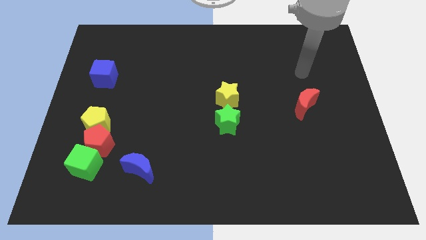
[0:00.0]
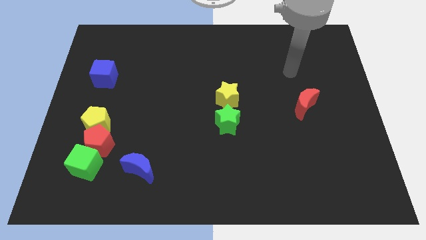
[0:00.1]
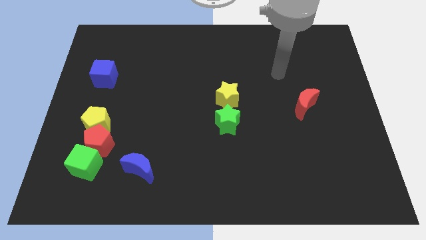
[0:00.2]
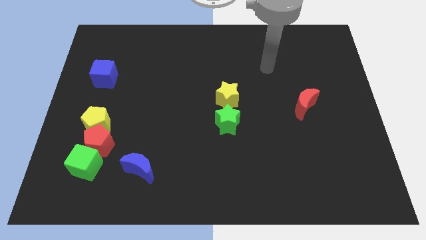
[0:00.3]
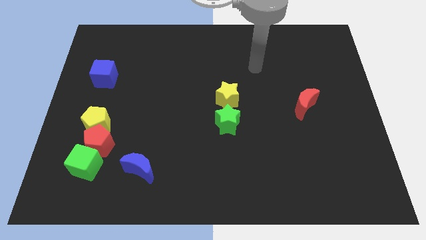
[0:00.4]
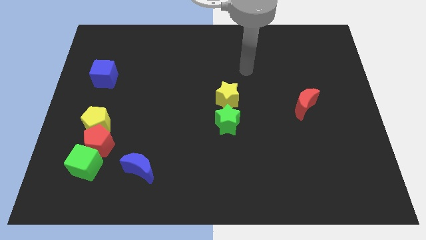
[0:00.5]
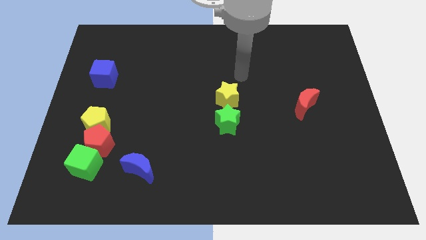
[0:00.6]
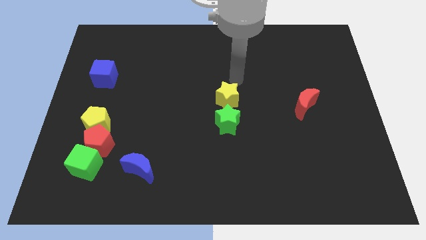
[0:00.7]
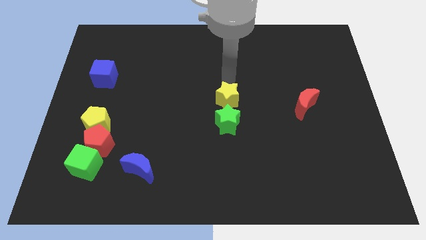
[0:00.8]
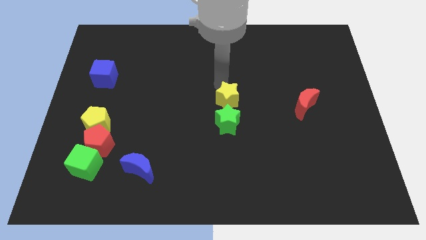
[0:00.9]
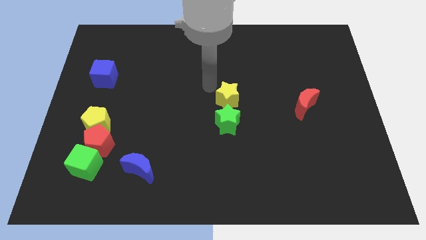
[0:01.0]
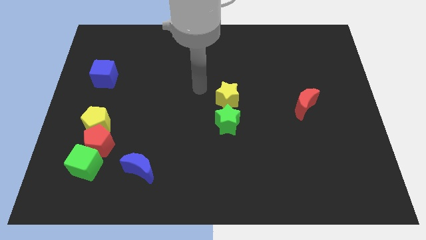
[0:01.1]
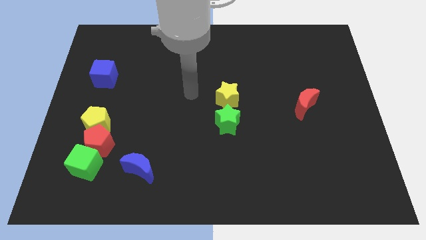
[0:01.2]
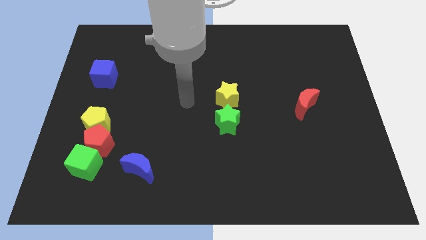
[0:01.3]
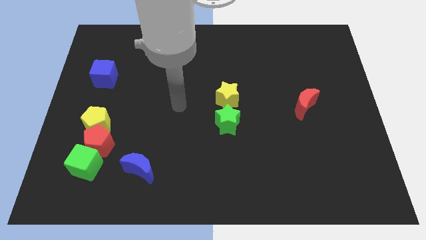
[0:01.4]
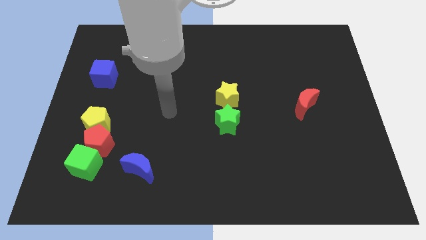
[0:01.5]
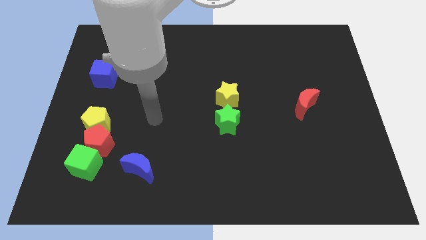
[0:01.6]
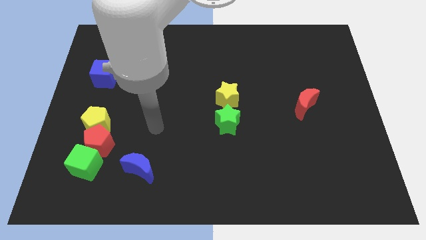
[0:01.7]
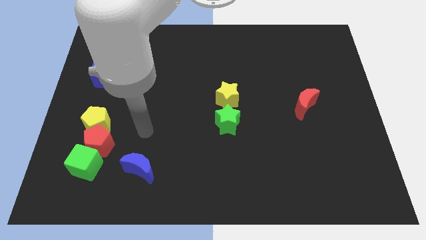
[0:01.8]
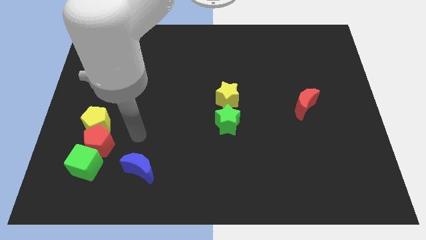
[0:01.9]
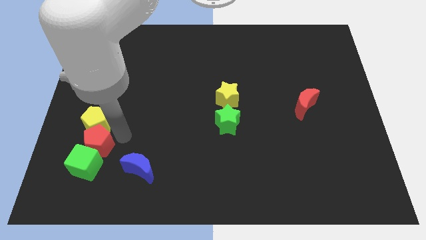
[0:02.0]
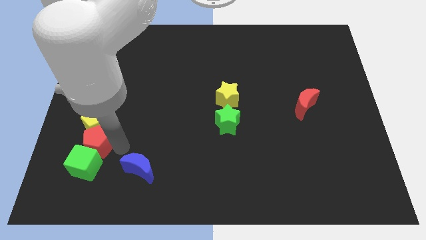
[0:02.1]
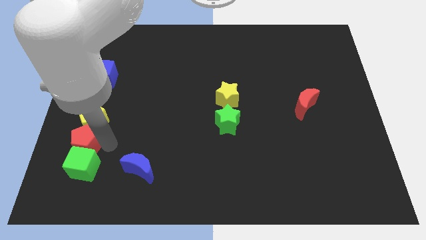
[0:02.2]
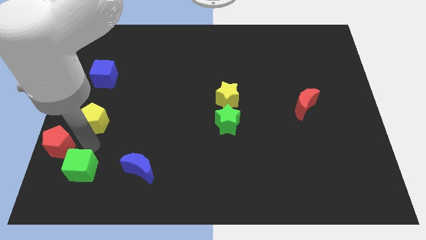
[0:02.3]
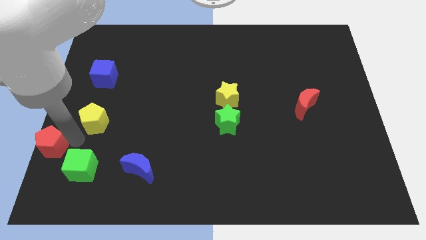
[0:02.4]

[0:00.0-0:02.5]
move the yellow pentagon away from the red pentagon

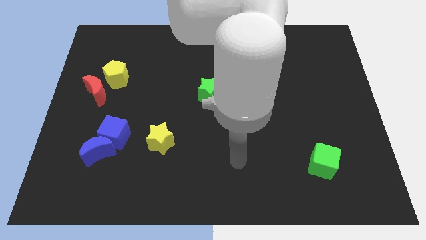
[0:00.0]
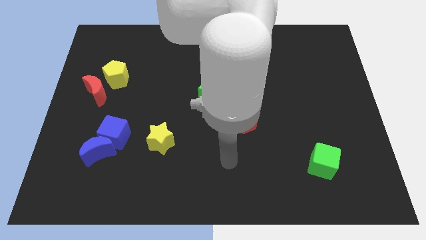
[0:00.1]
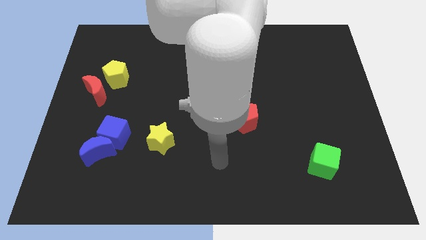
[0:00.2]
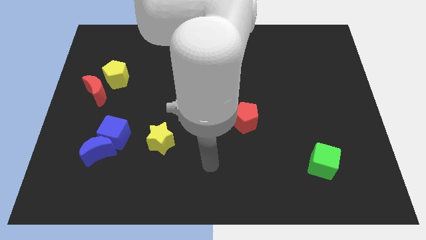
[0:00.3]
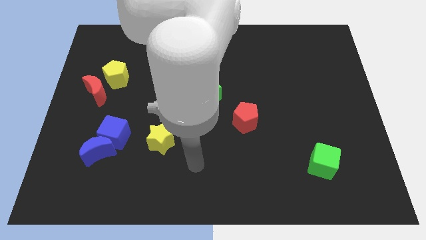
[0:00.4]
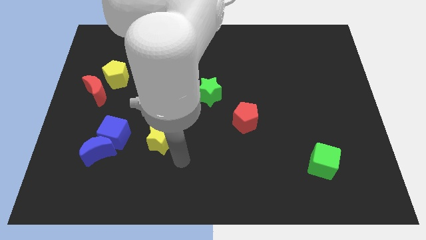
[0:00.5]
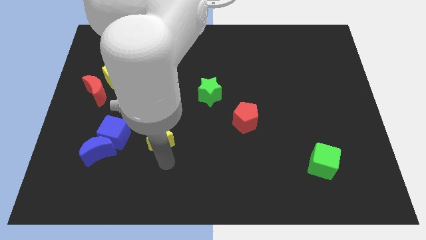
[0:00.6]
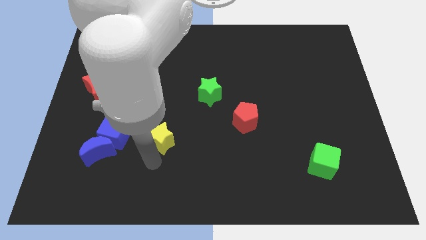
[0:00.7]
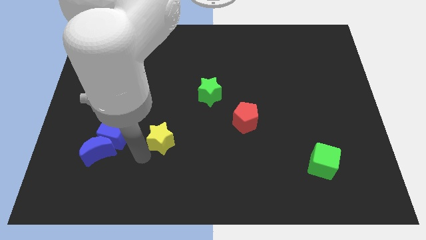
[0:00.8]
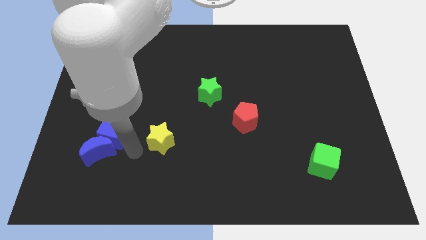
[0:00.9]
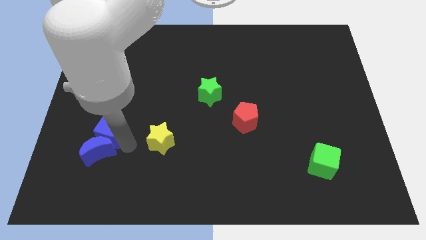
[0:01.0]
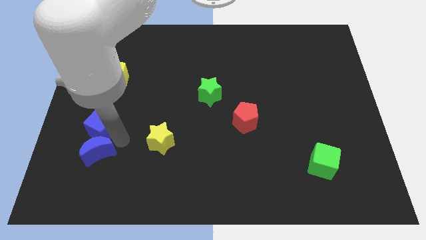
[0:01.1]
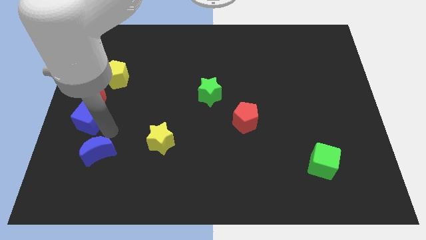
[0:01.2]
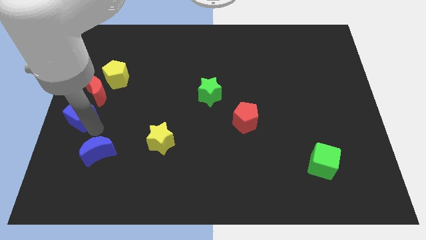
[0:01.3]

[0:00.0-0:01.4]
move the blue moon away from the blue cube

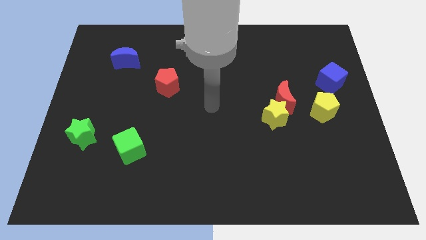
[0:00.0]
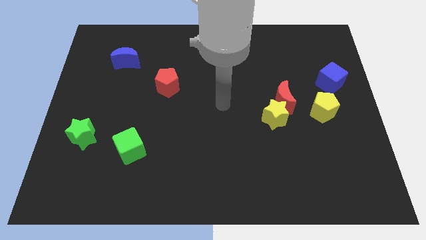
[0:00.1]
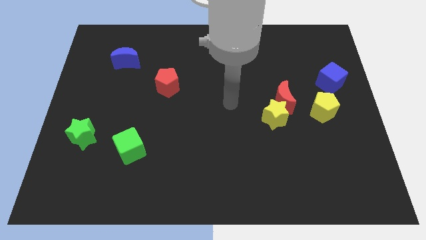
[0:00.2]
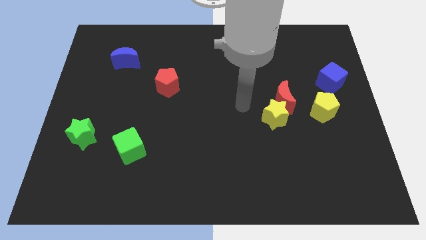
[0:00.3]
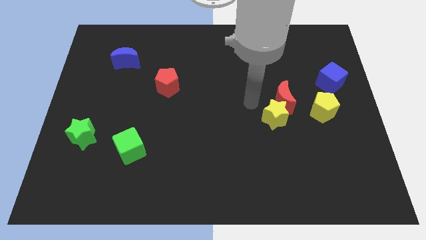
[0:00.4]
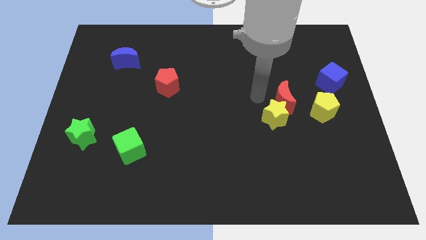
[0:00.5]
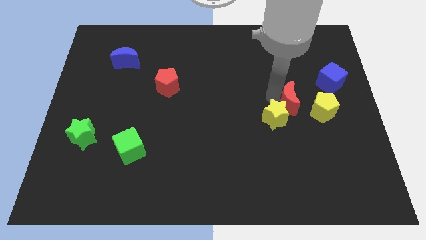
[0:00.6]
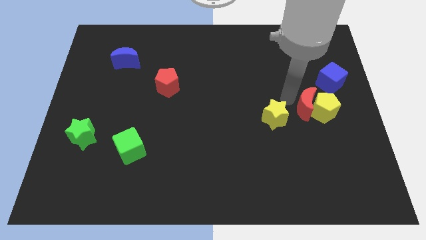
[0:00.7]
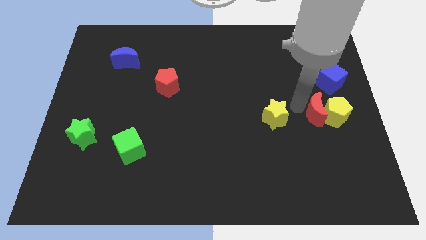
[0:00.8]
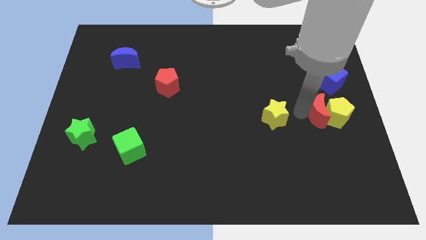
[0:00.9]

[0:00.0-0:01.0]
pull the yellow star apart from the red moon

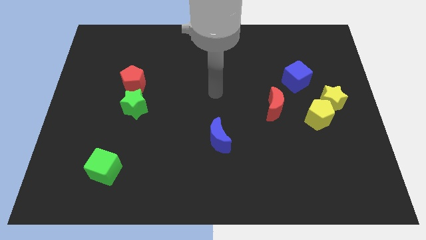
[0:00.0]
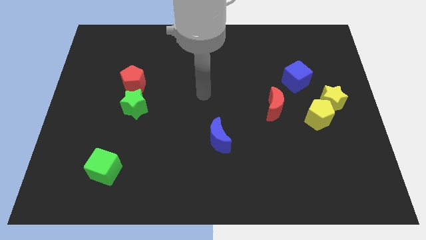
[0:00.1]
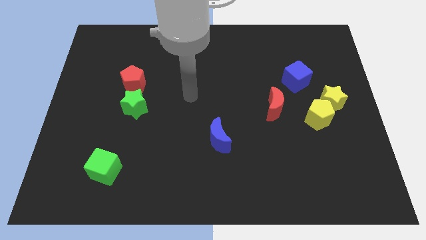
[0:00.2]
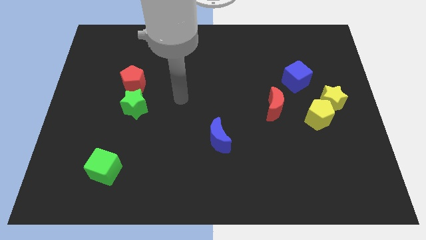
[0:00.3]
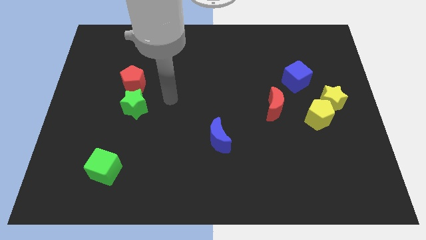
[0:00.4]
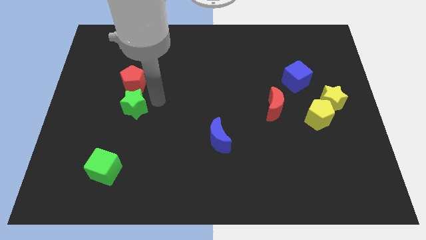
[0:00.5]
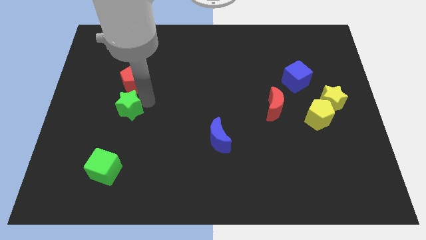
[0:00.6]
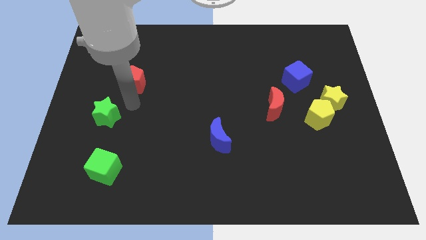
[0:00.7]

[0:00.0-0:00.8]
pull the red pentagon apart from the green star

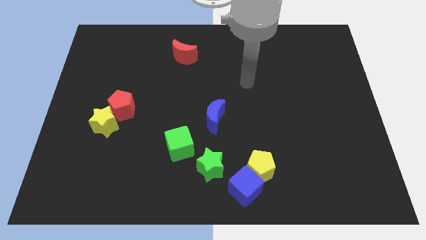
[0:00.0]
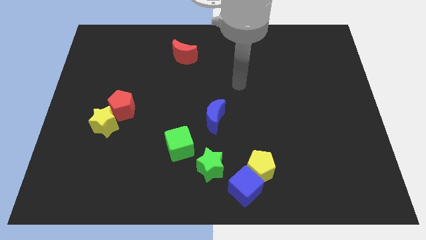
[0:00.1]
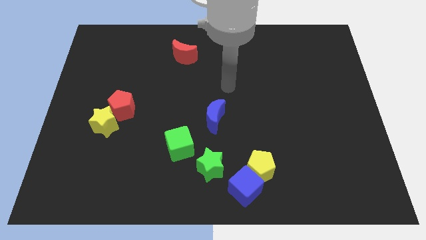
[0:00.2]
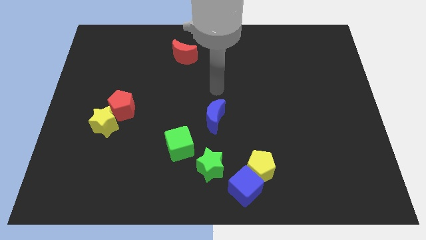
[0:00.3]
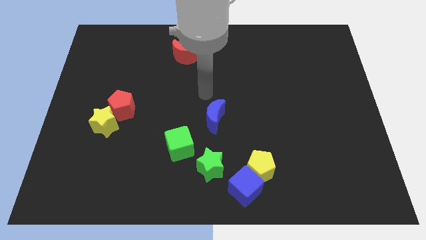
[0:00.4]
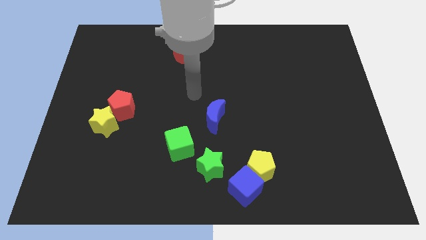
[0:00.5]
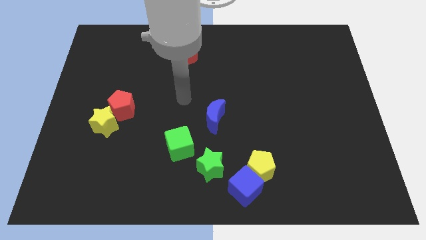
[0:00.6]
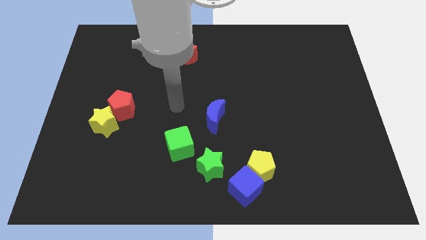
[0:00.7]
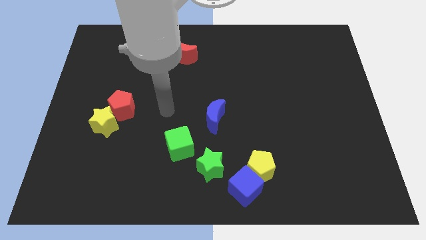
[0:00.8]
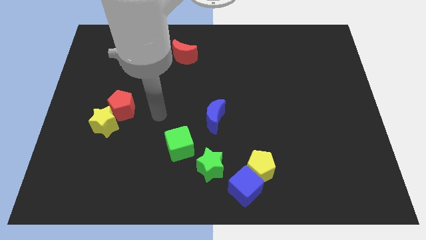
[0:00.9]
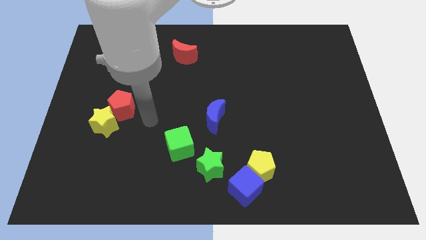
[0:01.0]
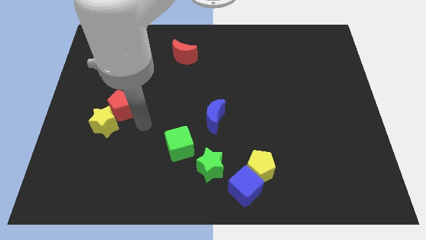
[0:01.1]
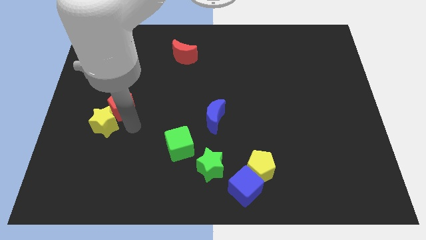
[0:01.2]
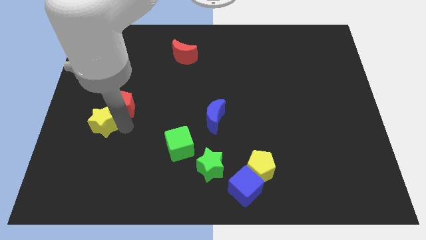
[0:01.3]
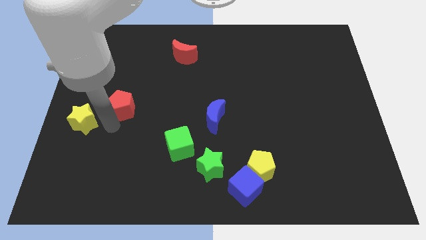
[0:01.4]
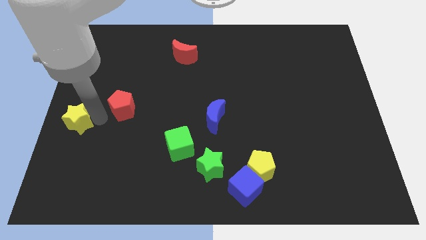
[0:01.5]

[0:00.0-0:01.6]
pull the red pentagon apart from the yellow star

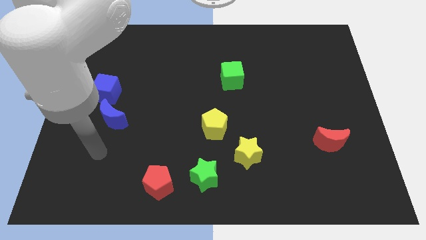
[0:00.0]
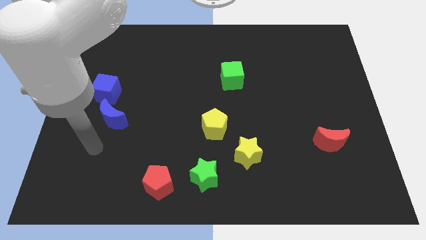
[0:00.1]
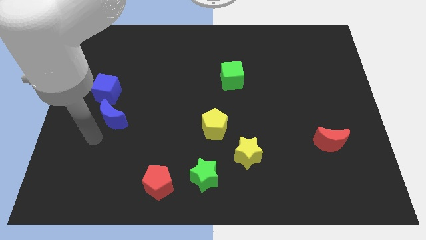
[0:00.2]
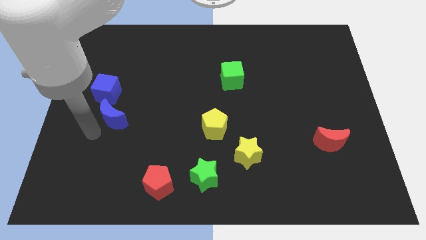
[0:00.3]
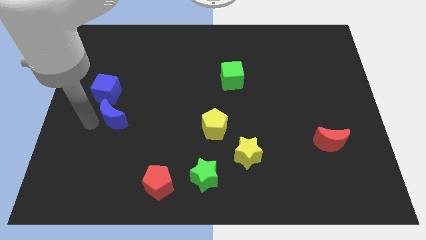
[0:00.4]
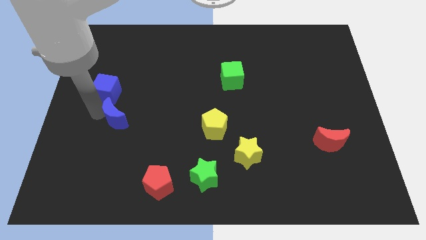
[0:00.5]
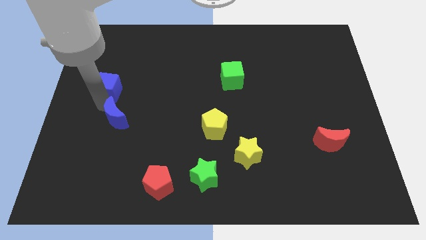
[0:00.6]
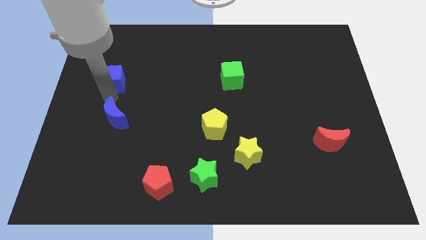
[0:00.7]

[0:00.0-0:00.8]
pull the blue moon apart from the blue cube

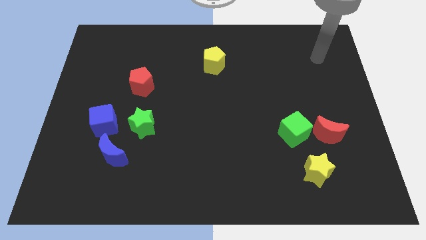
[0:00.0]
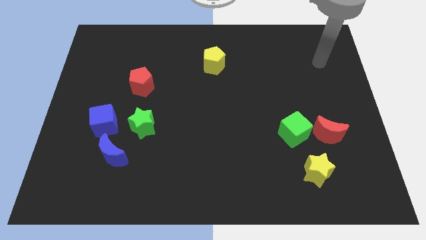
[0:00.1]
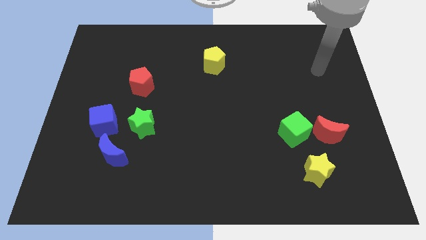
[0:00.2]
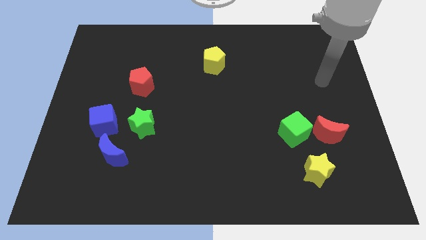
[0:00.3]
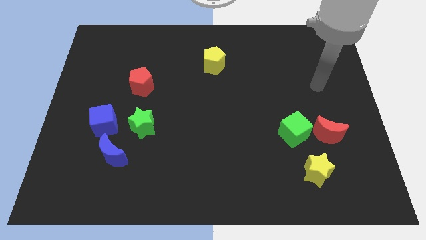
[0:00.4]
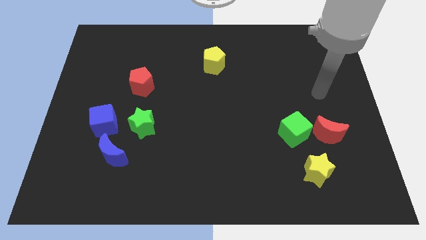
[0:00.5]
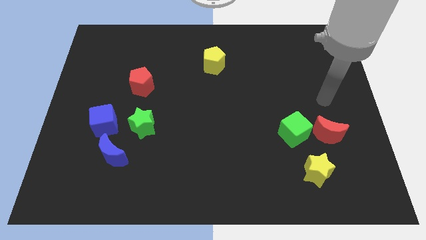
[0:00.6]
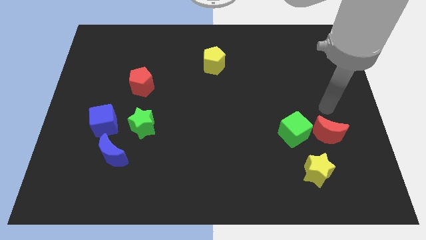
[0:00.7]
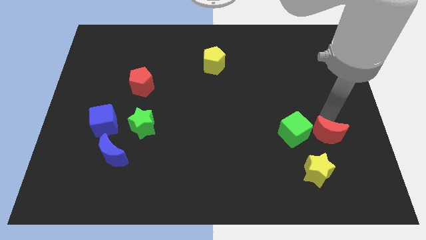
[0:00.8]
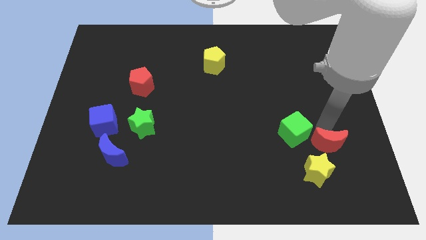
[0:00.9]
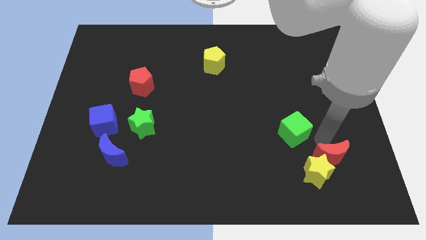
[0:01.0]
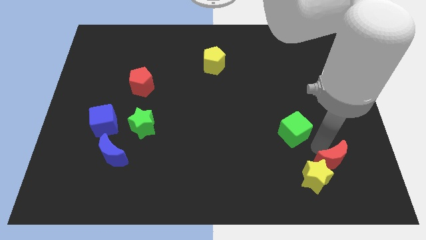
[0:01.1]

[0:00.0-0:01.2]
separate the green cube from the red moon
